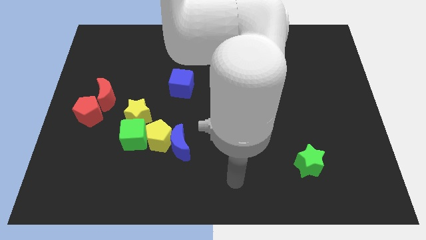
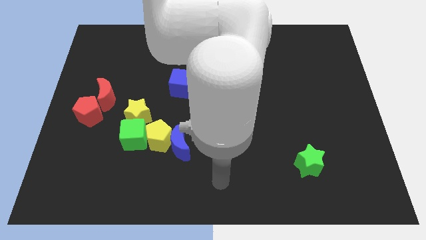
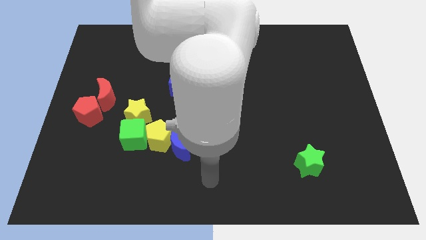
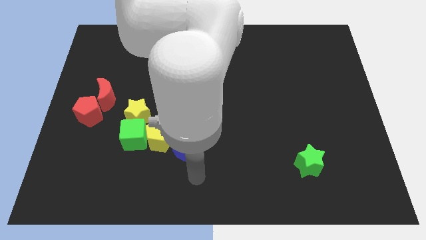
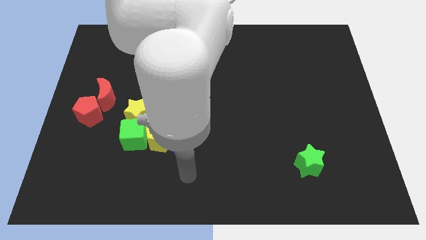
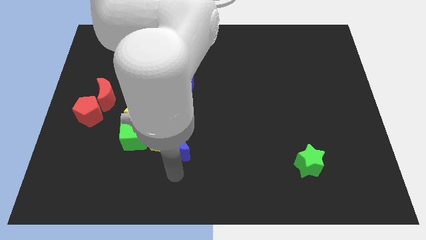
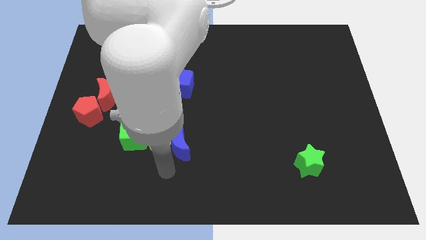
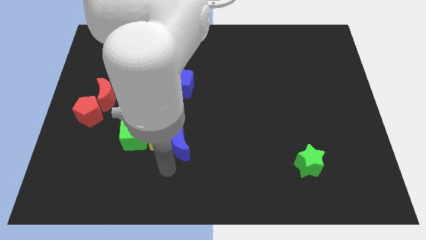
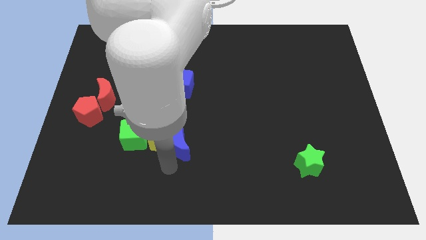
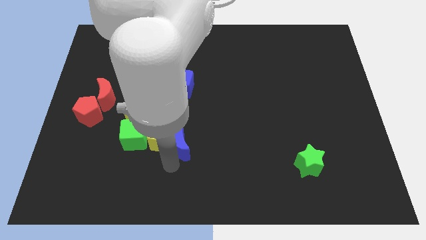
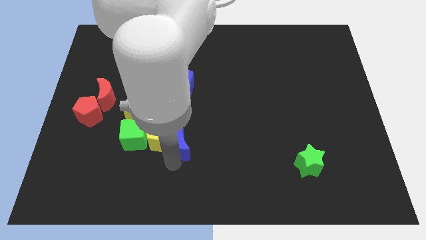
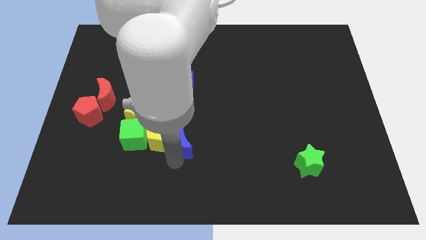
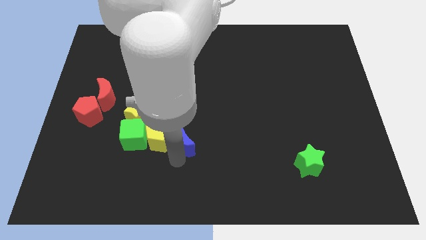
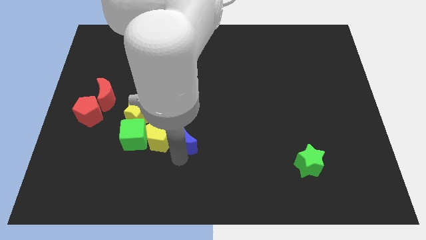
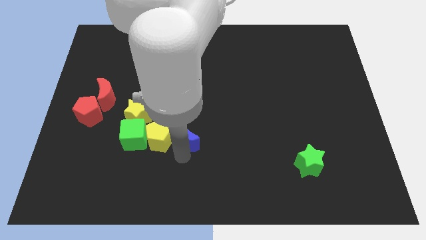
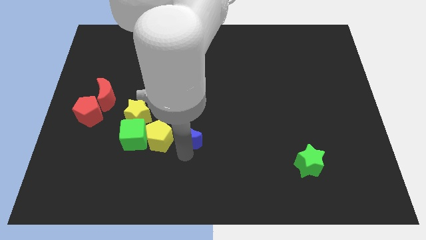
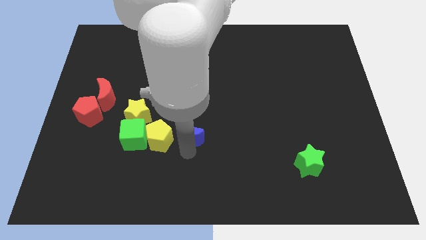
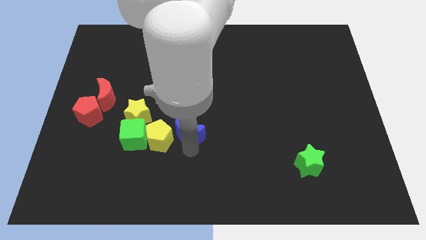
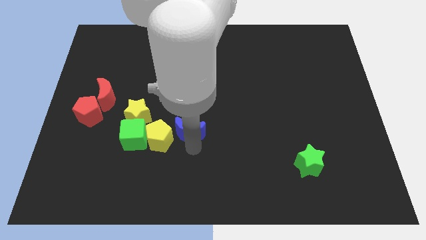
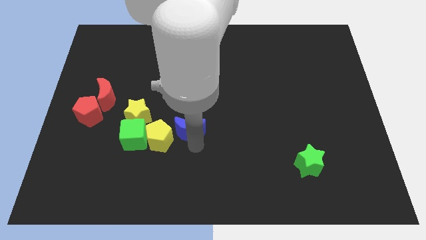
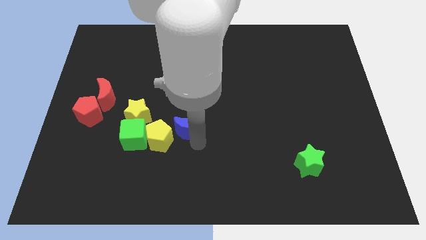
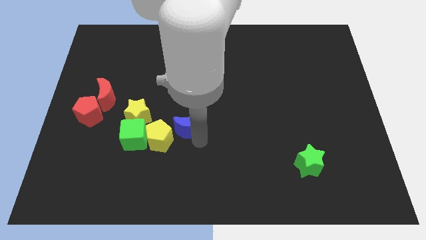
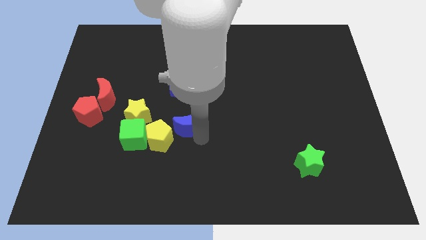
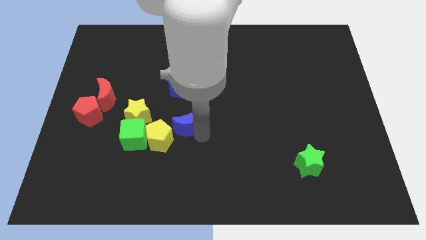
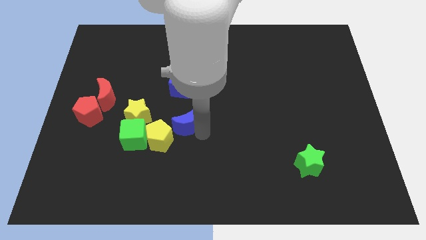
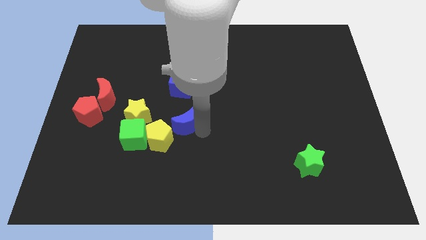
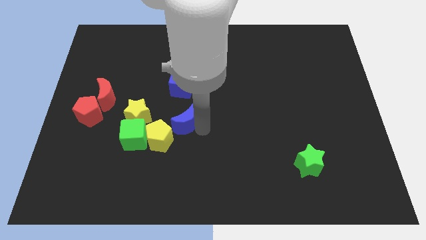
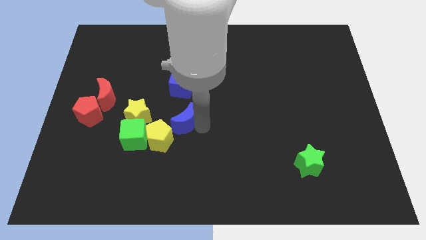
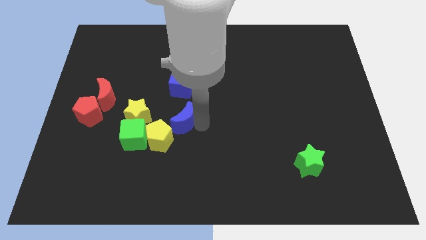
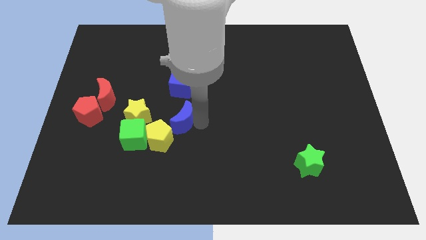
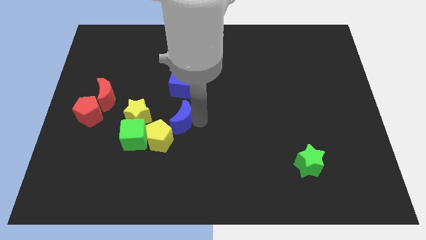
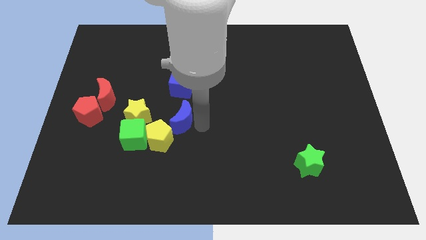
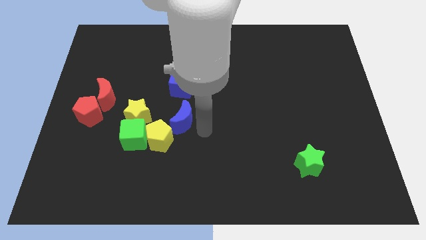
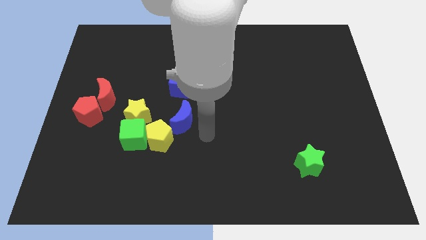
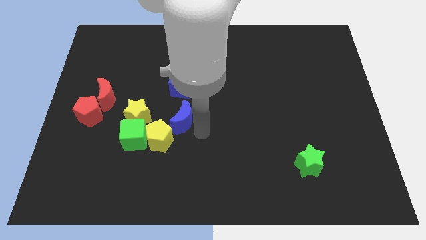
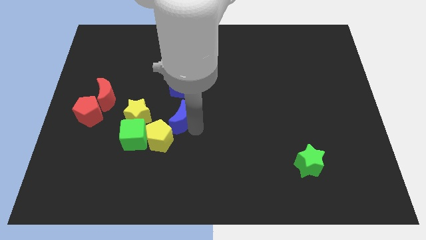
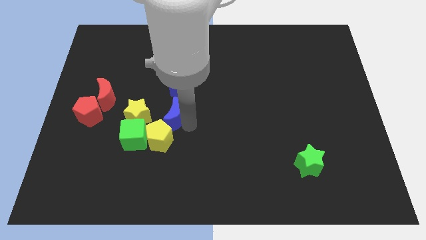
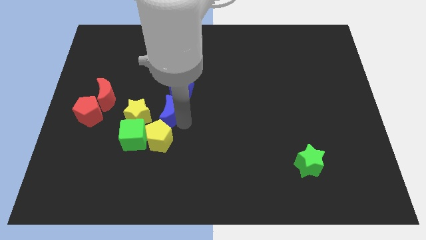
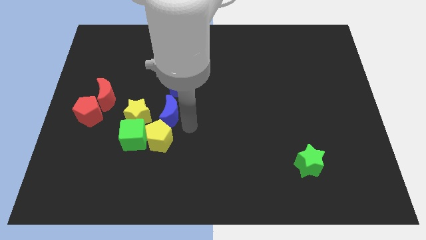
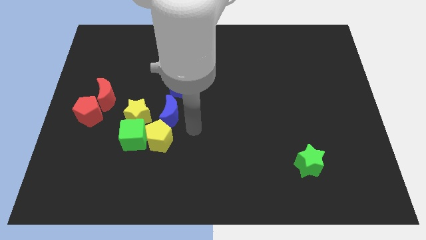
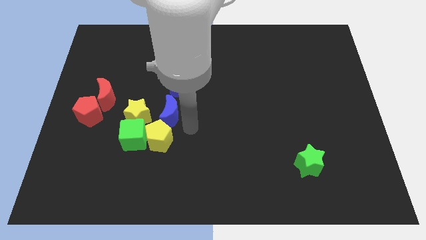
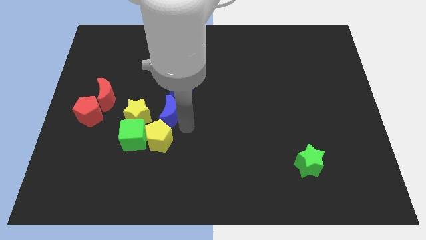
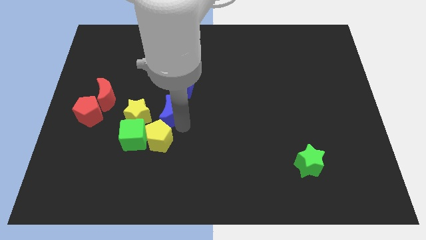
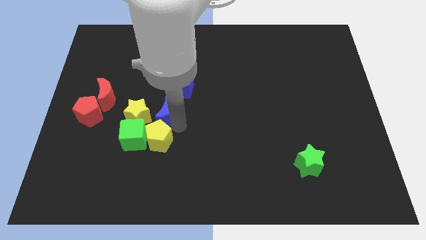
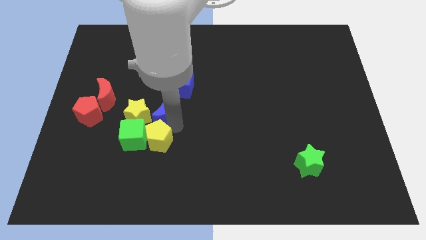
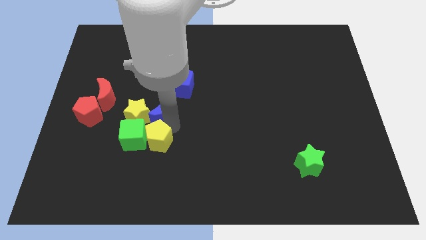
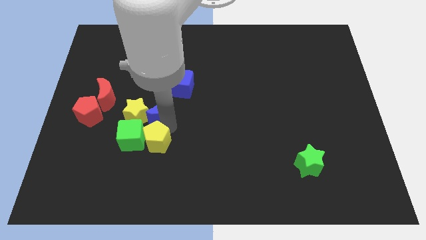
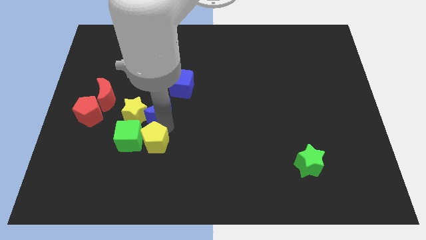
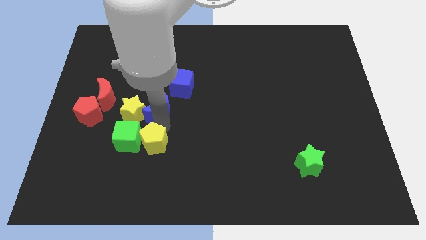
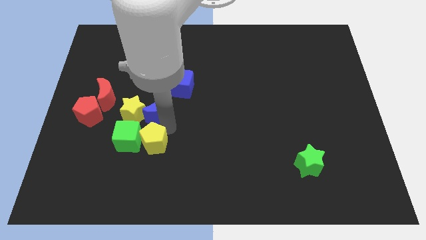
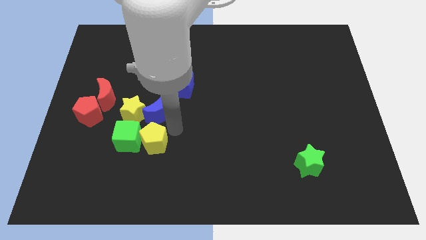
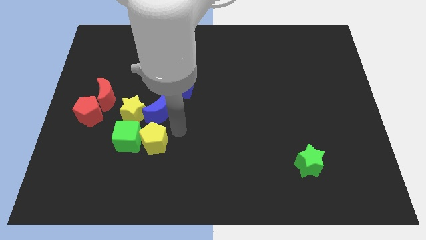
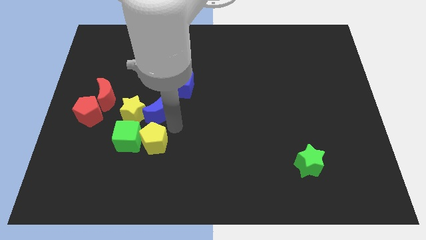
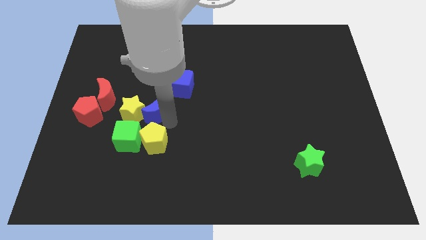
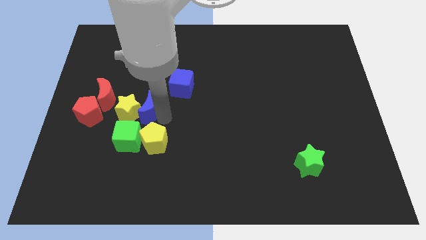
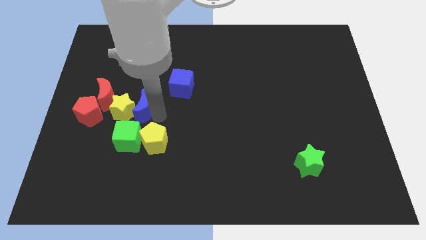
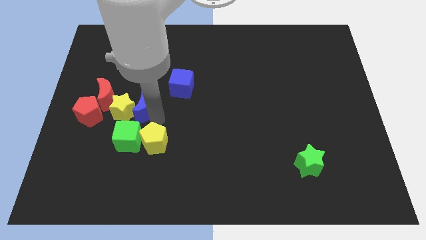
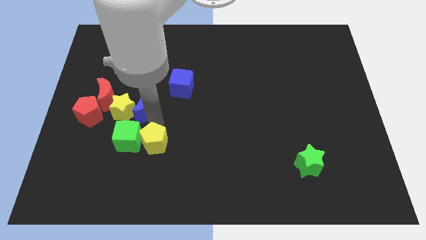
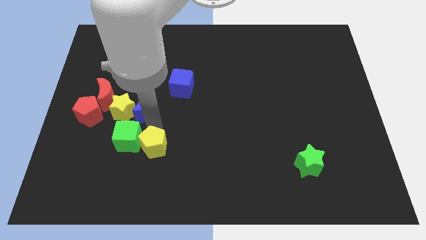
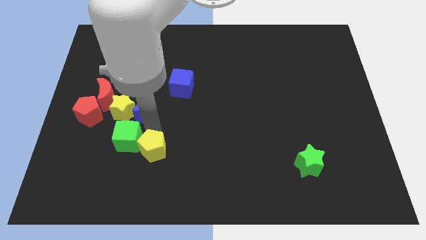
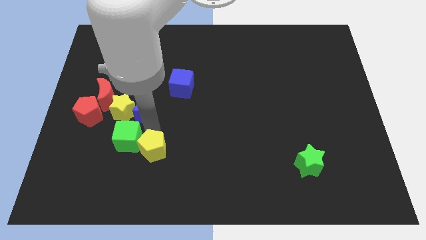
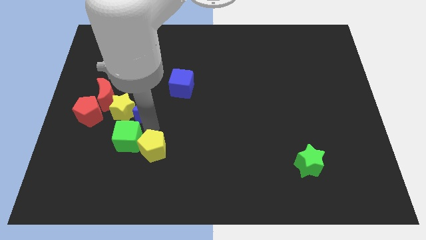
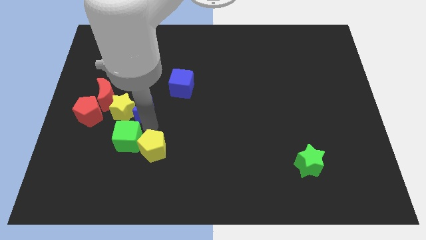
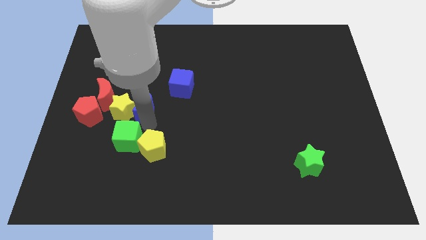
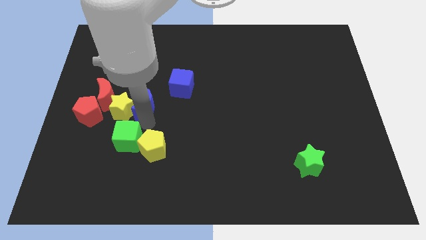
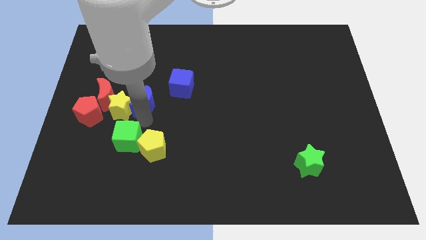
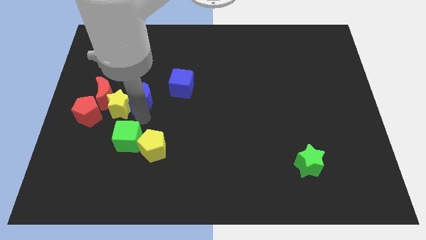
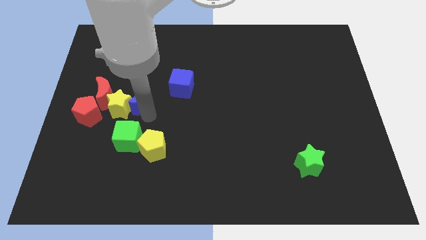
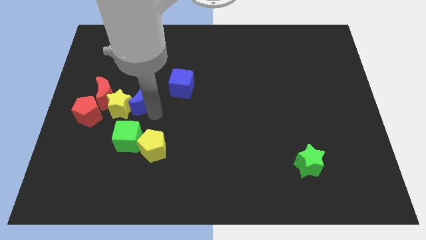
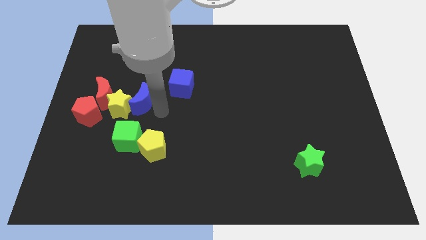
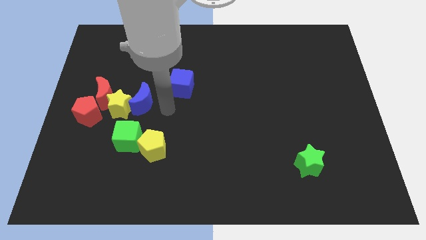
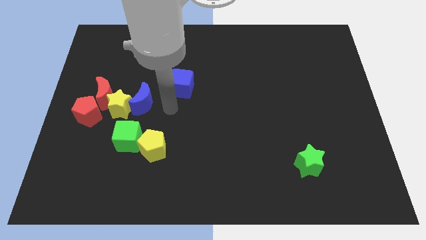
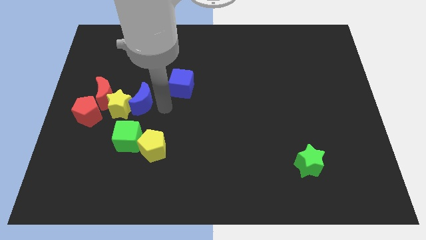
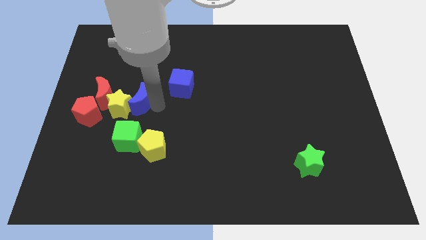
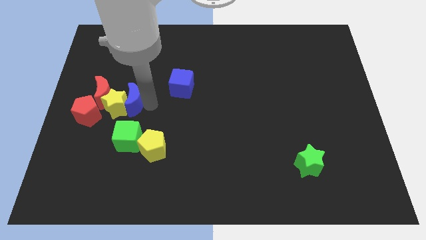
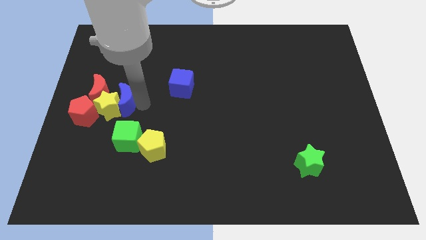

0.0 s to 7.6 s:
slide the blue moon to the top right side of the red pentagon
